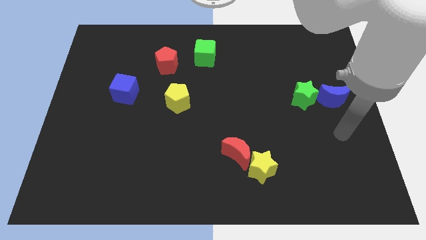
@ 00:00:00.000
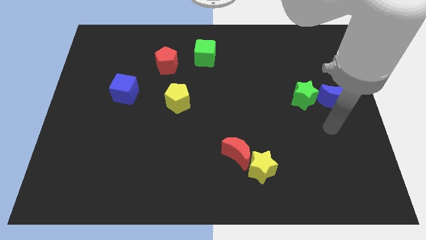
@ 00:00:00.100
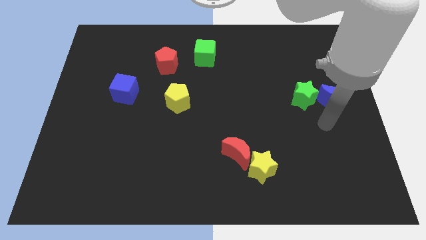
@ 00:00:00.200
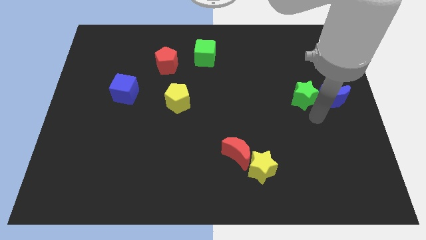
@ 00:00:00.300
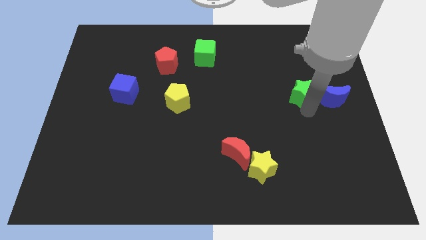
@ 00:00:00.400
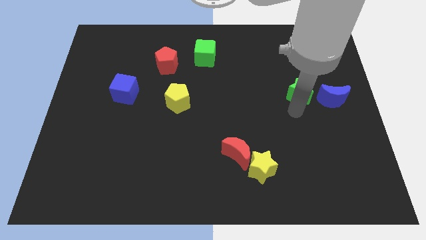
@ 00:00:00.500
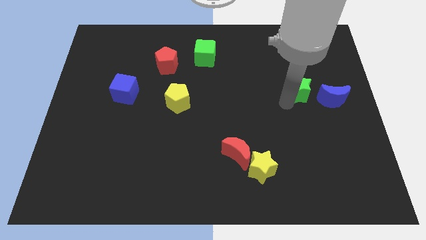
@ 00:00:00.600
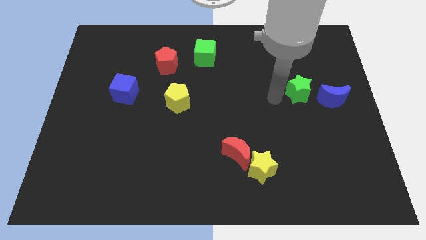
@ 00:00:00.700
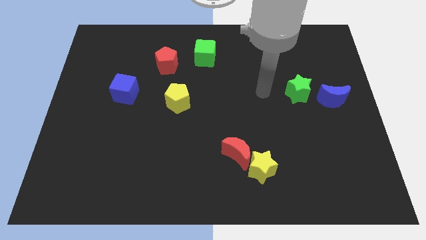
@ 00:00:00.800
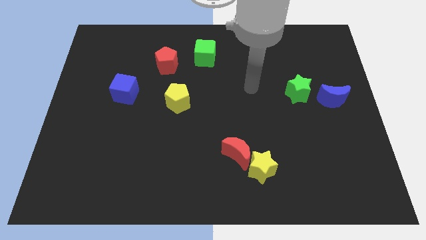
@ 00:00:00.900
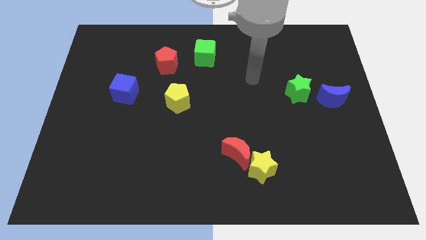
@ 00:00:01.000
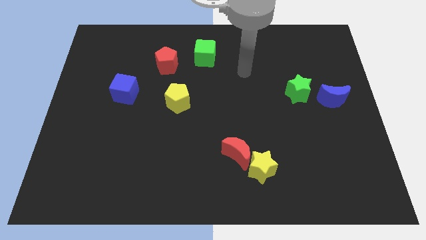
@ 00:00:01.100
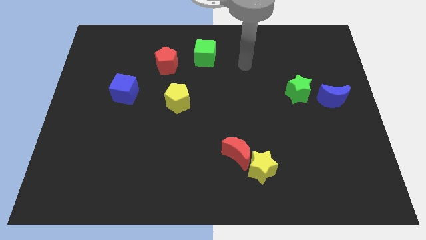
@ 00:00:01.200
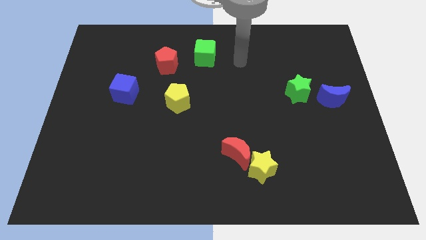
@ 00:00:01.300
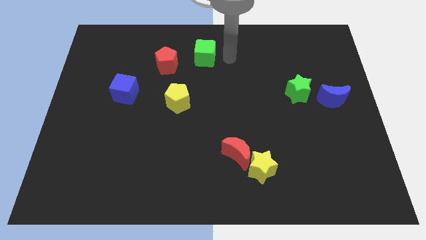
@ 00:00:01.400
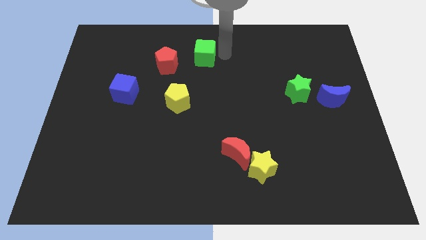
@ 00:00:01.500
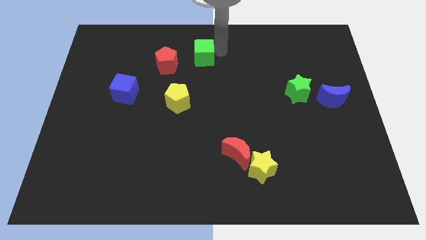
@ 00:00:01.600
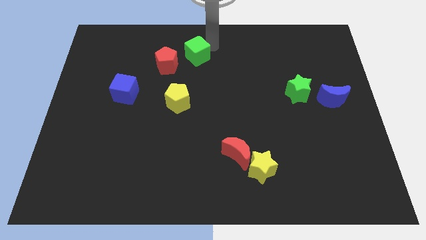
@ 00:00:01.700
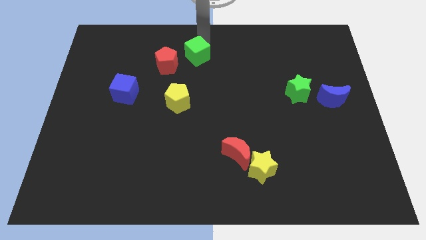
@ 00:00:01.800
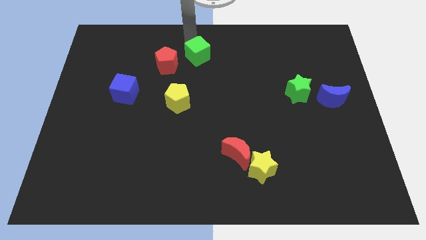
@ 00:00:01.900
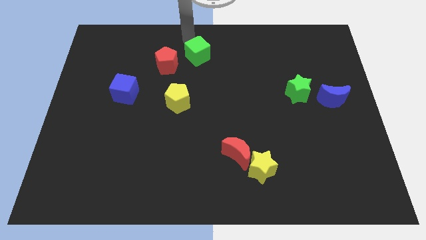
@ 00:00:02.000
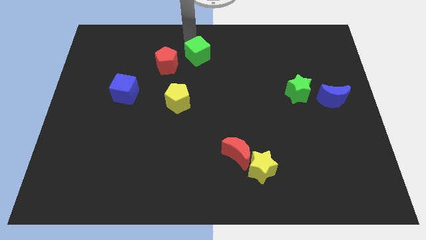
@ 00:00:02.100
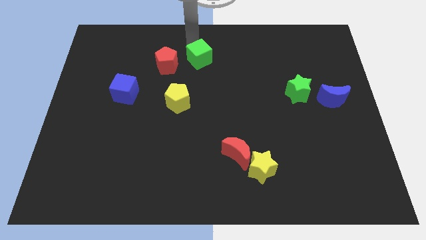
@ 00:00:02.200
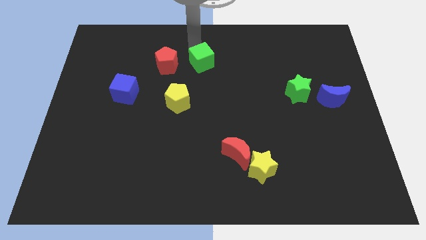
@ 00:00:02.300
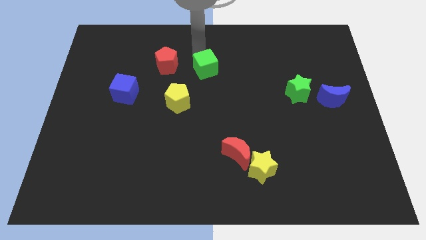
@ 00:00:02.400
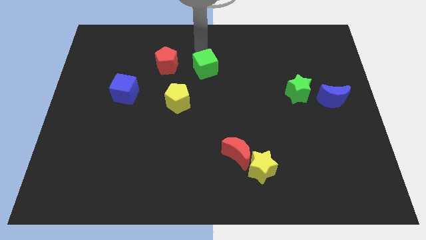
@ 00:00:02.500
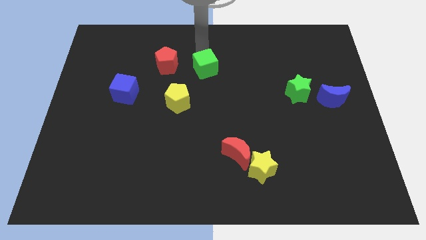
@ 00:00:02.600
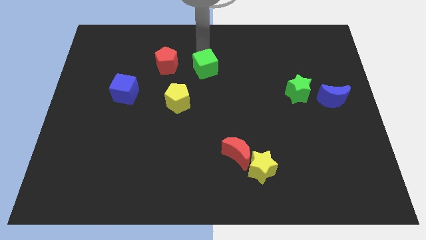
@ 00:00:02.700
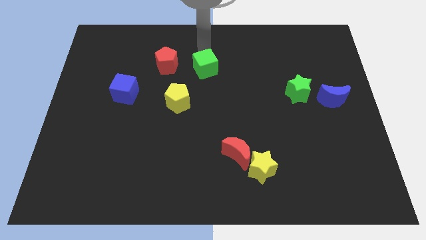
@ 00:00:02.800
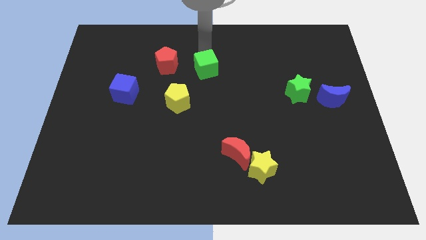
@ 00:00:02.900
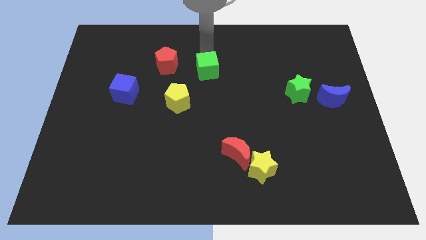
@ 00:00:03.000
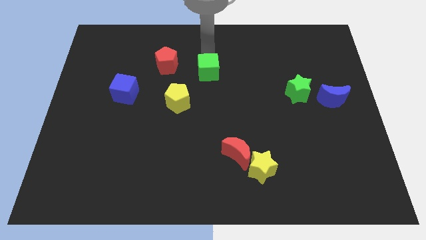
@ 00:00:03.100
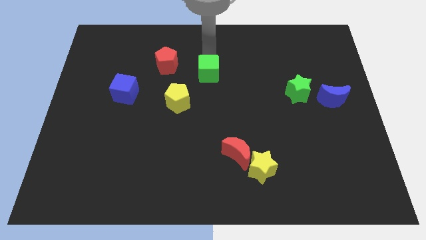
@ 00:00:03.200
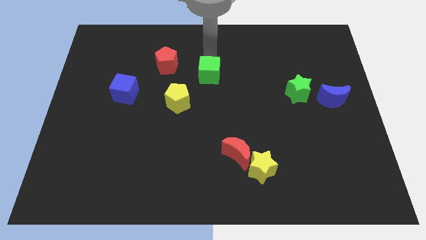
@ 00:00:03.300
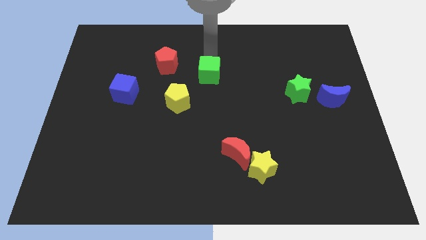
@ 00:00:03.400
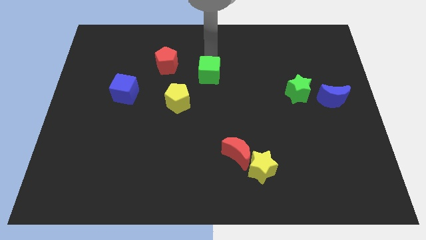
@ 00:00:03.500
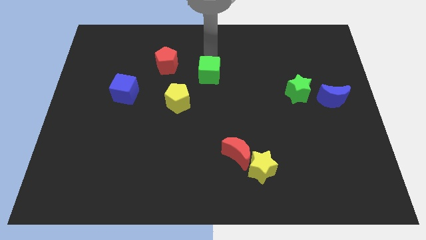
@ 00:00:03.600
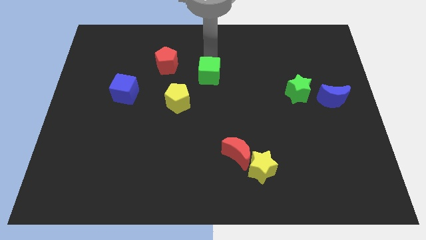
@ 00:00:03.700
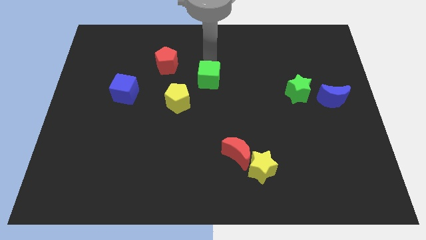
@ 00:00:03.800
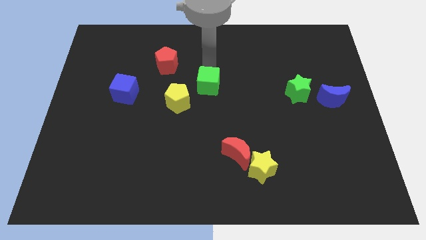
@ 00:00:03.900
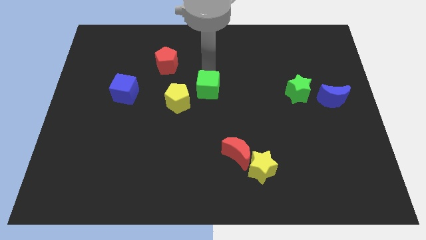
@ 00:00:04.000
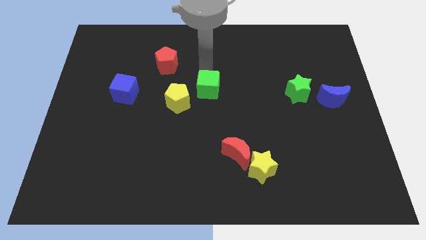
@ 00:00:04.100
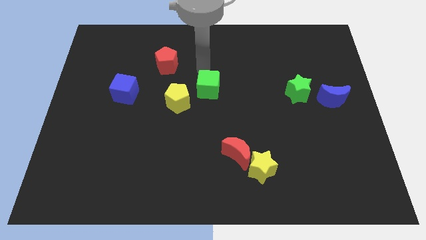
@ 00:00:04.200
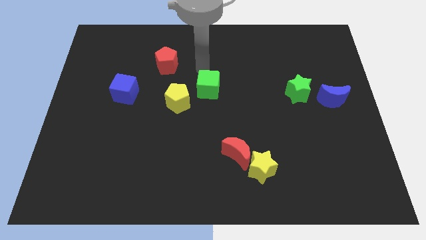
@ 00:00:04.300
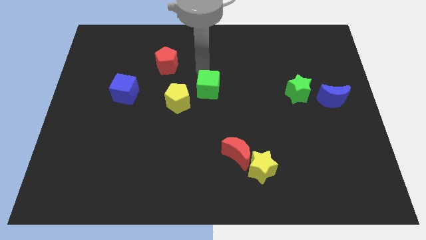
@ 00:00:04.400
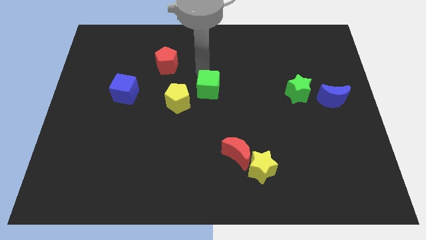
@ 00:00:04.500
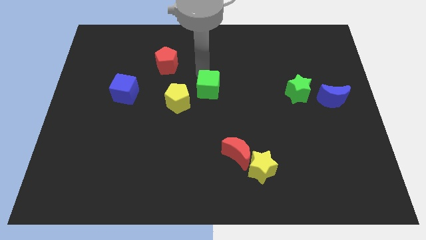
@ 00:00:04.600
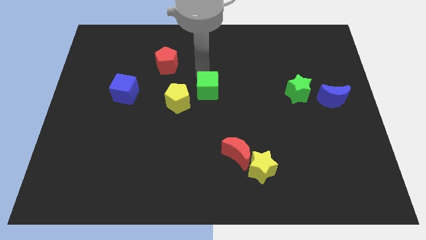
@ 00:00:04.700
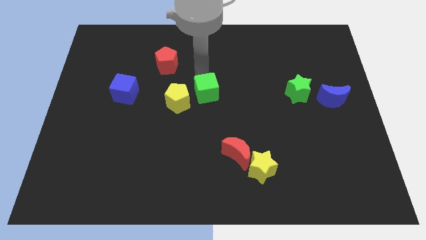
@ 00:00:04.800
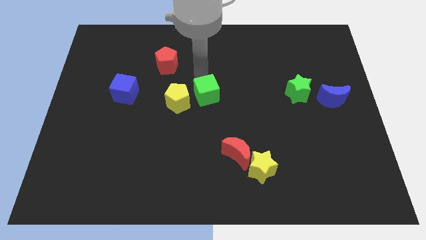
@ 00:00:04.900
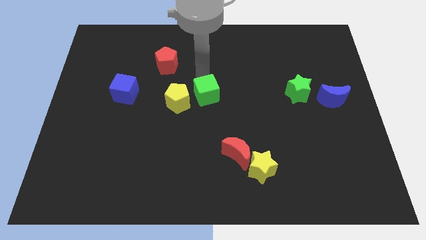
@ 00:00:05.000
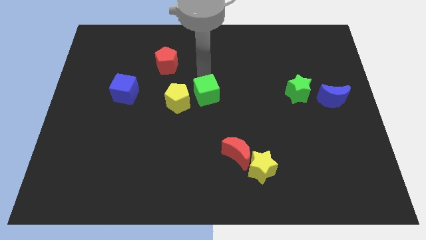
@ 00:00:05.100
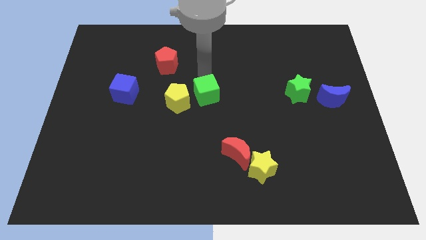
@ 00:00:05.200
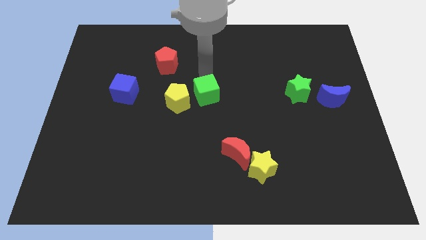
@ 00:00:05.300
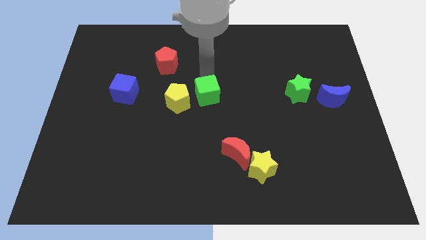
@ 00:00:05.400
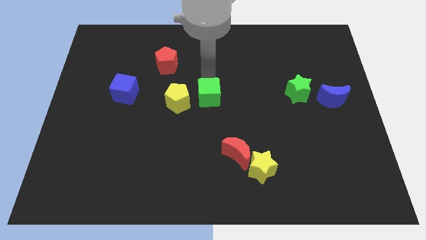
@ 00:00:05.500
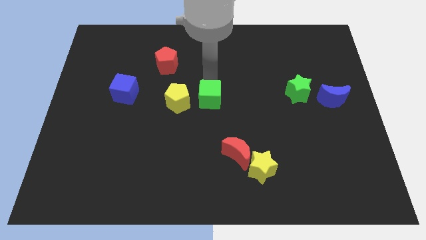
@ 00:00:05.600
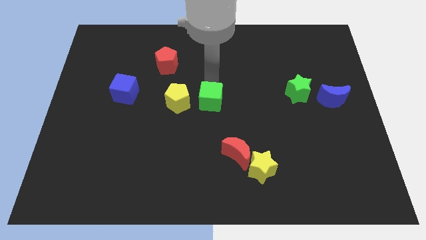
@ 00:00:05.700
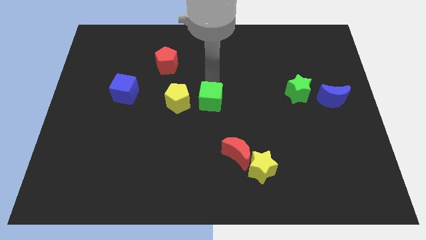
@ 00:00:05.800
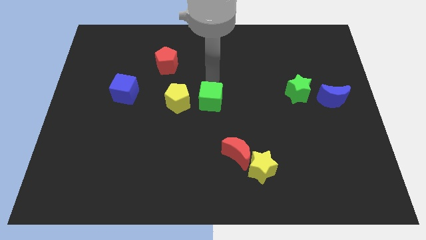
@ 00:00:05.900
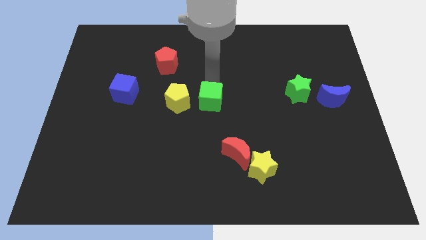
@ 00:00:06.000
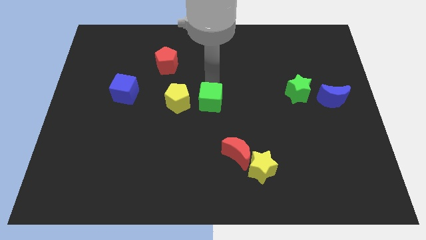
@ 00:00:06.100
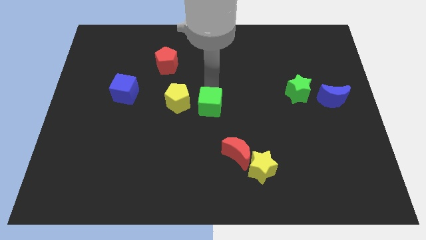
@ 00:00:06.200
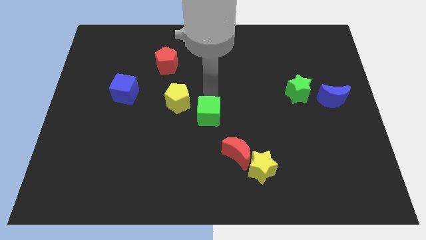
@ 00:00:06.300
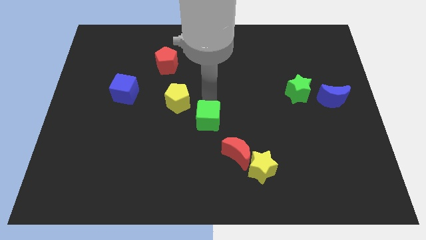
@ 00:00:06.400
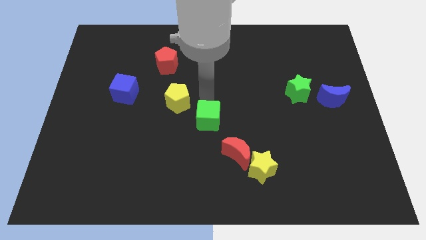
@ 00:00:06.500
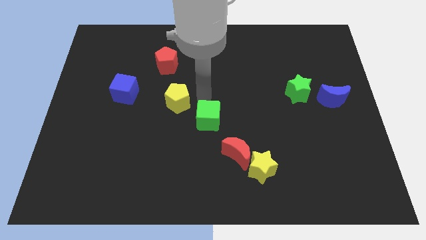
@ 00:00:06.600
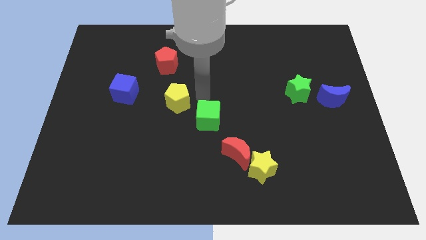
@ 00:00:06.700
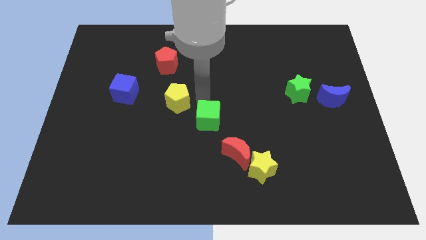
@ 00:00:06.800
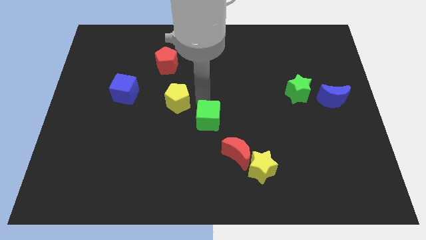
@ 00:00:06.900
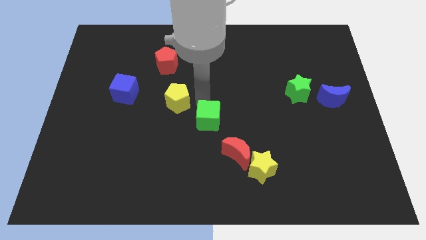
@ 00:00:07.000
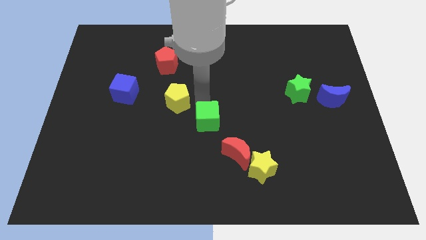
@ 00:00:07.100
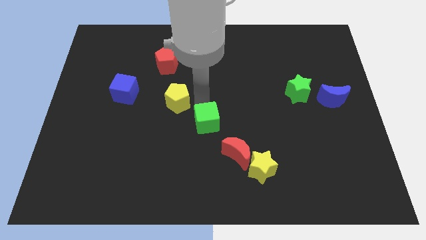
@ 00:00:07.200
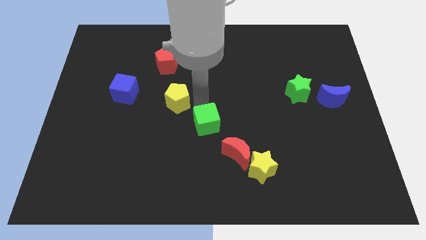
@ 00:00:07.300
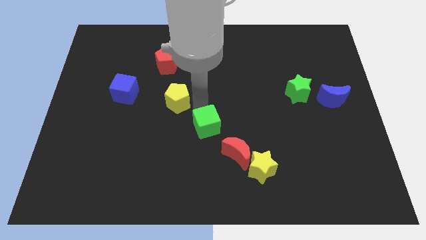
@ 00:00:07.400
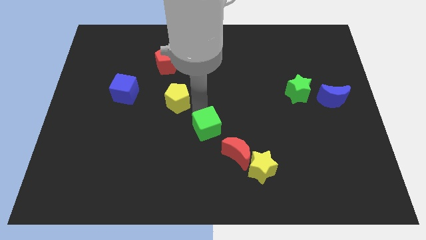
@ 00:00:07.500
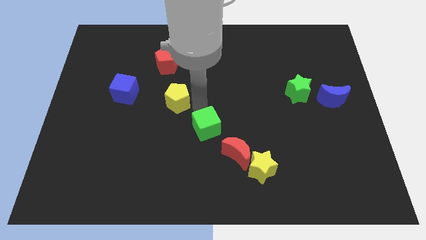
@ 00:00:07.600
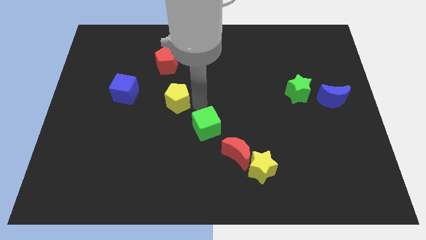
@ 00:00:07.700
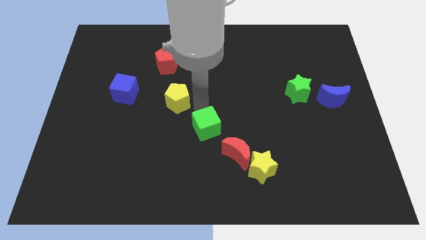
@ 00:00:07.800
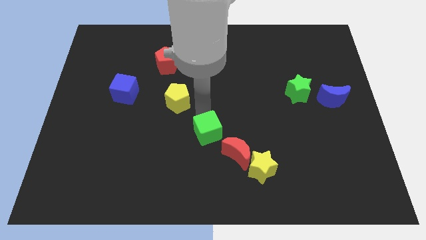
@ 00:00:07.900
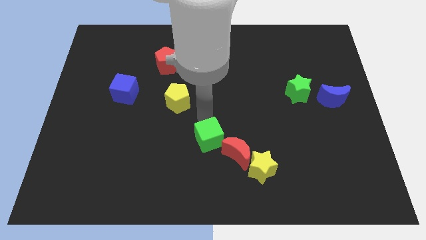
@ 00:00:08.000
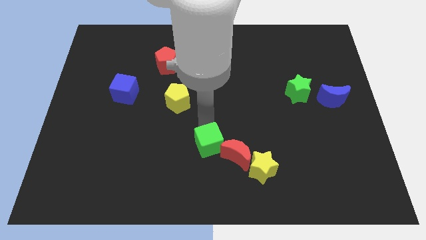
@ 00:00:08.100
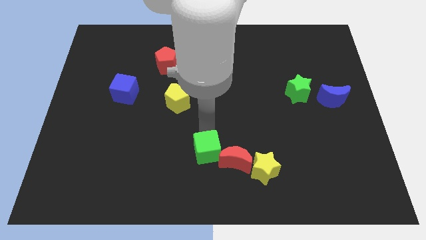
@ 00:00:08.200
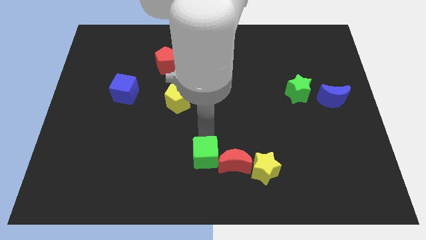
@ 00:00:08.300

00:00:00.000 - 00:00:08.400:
push the green cube to the bottom side
